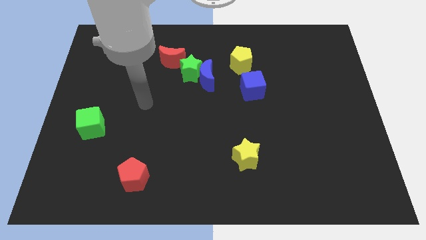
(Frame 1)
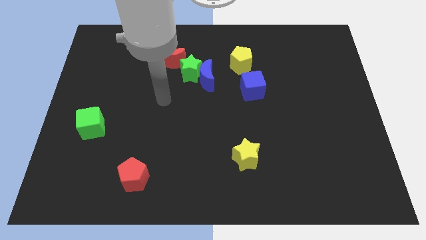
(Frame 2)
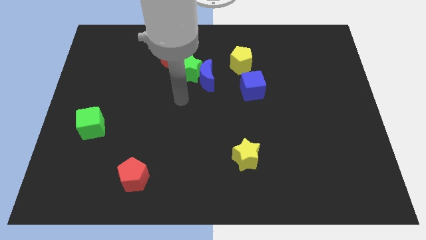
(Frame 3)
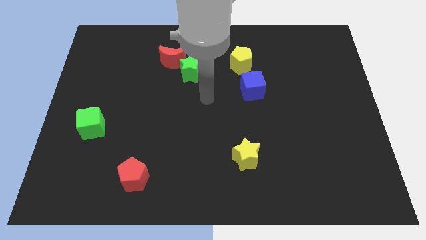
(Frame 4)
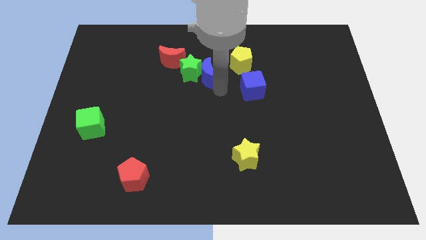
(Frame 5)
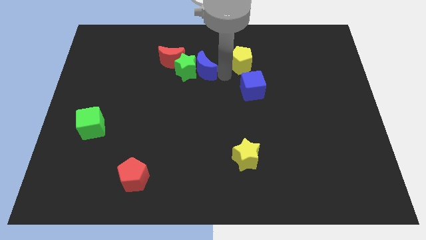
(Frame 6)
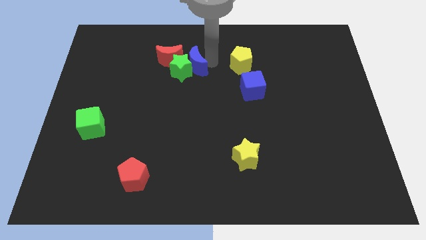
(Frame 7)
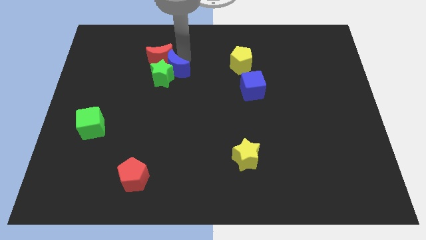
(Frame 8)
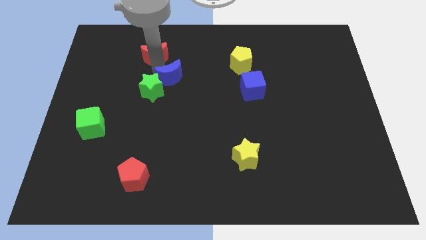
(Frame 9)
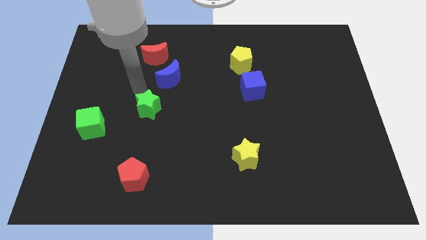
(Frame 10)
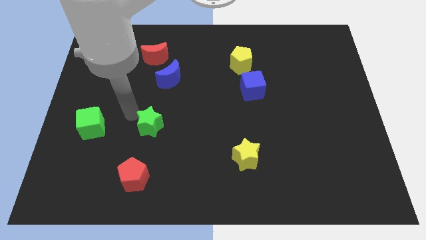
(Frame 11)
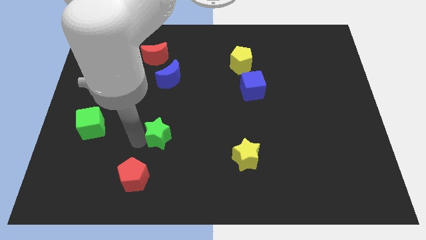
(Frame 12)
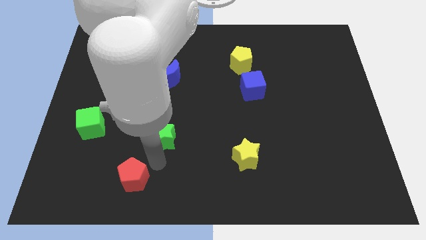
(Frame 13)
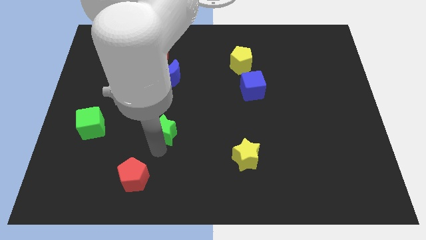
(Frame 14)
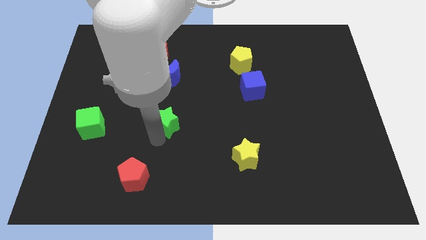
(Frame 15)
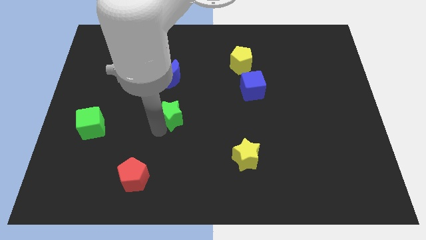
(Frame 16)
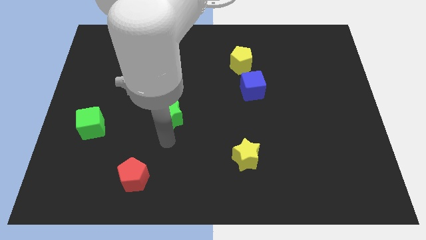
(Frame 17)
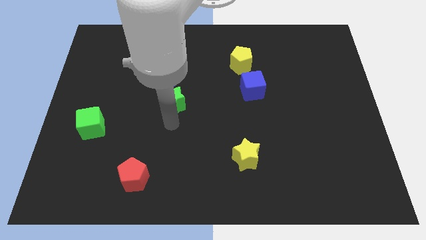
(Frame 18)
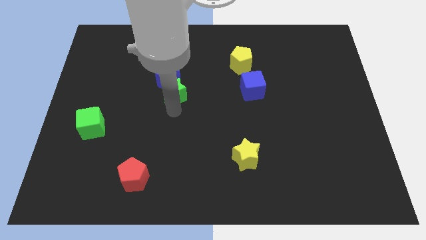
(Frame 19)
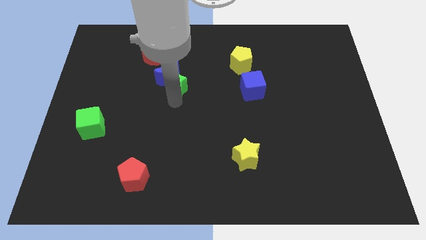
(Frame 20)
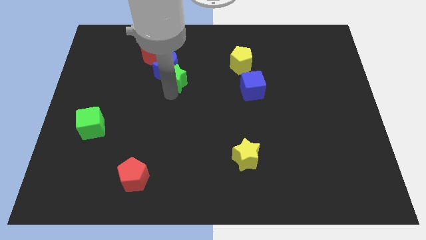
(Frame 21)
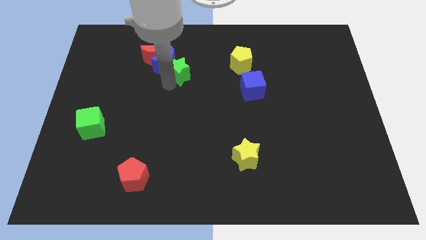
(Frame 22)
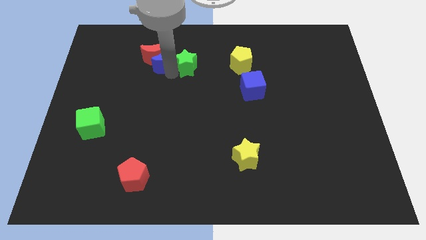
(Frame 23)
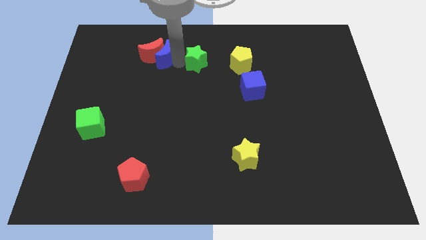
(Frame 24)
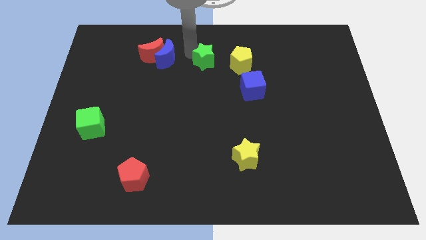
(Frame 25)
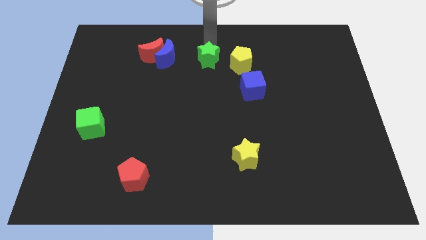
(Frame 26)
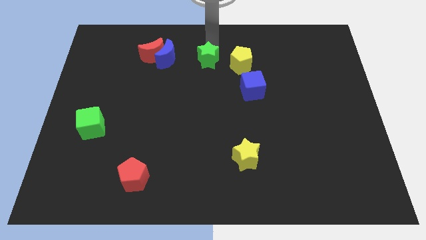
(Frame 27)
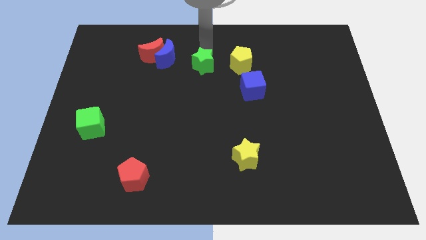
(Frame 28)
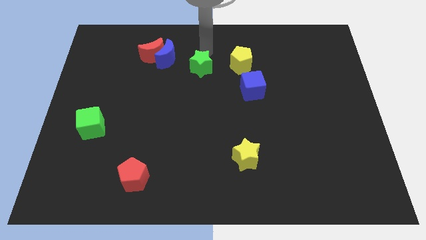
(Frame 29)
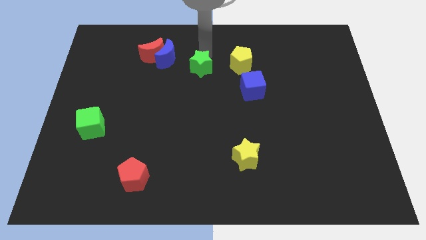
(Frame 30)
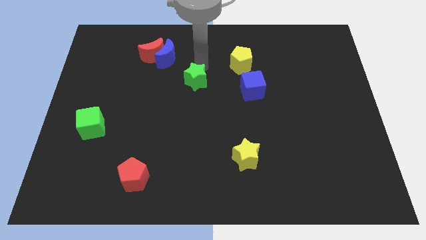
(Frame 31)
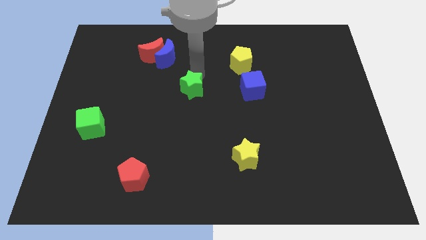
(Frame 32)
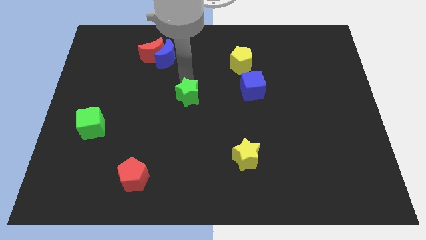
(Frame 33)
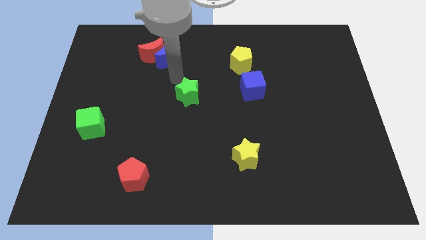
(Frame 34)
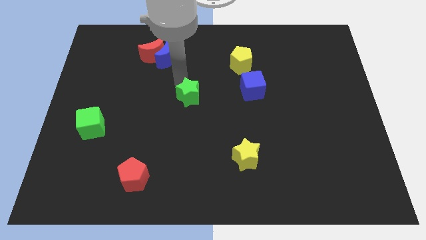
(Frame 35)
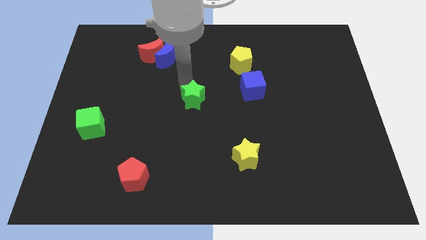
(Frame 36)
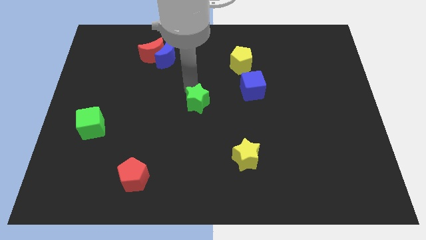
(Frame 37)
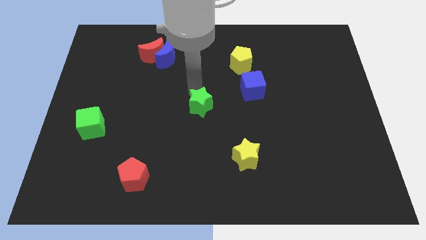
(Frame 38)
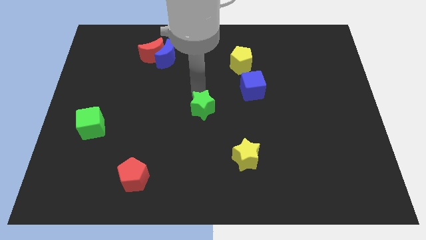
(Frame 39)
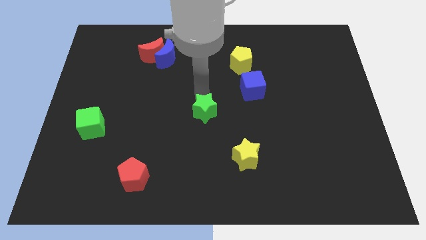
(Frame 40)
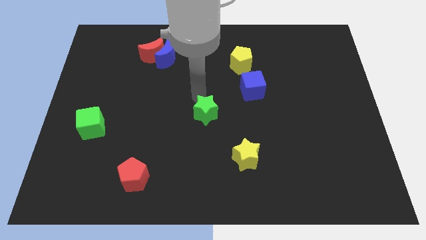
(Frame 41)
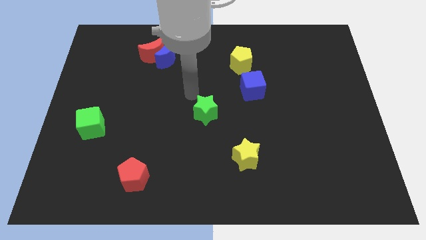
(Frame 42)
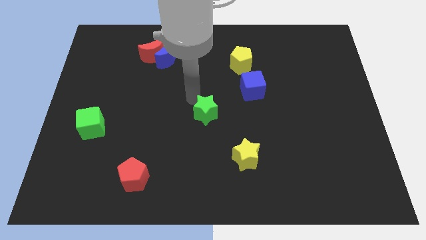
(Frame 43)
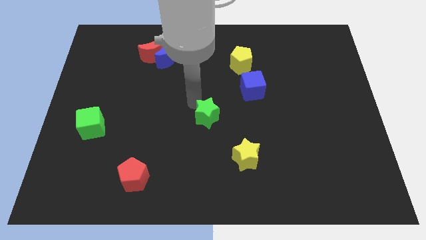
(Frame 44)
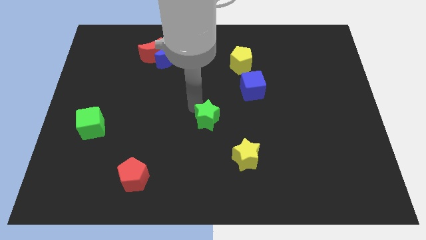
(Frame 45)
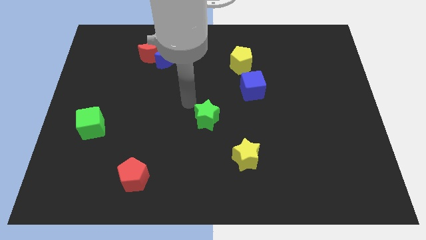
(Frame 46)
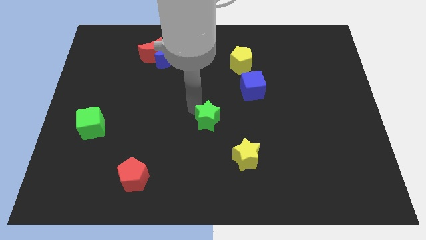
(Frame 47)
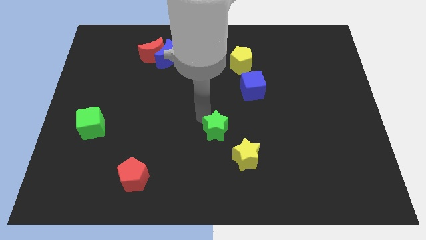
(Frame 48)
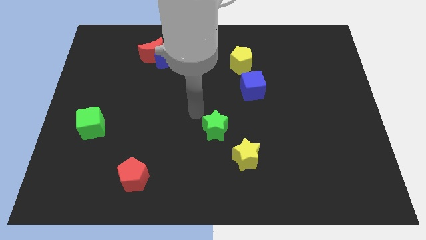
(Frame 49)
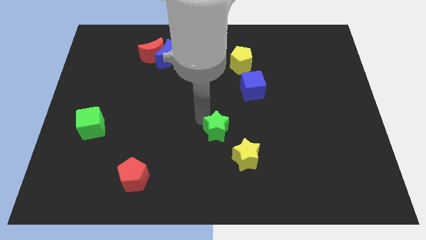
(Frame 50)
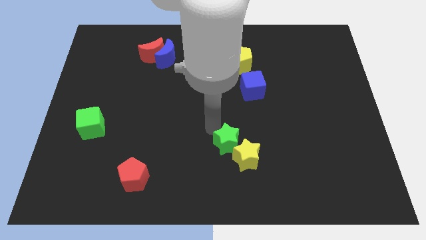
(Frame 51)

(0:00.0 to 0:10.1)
push the green star close to the yellow star

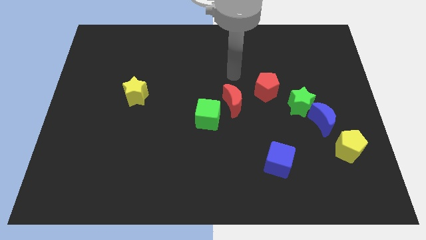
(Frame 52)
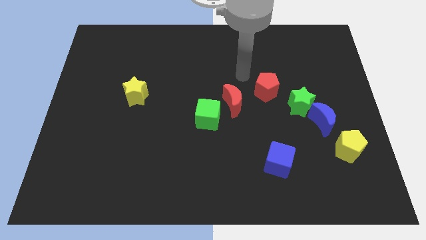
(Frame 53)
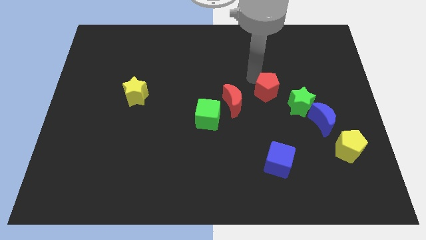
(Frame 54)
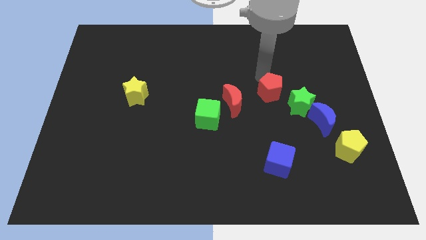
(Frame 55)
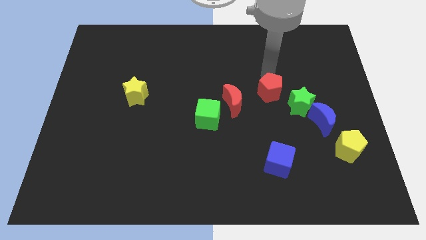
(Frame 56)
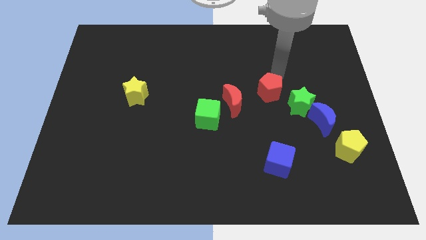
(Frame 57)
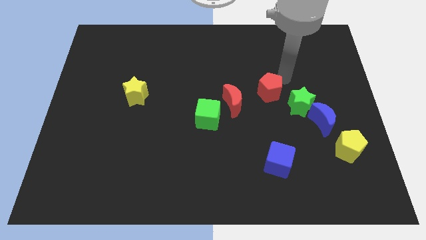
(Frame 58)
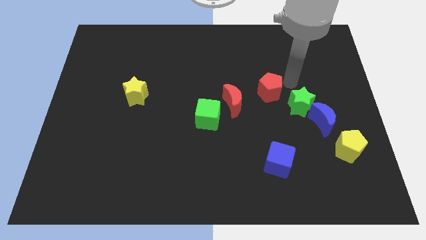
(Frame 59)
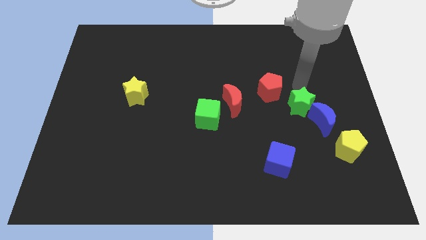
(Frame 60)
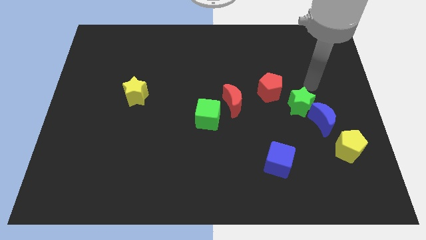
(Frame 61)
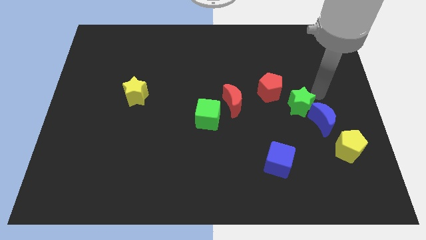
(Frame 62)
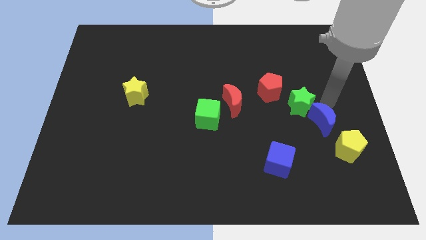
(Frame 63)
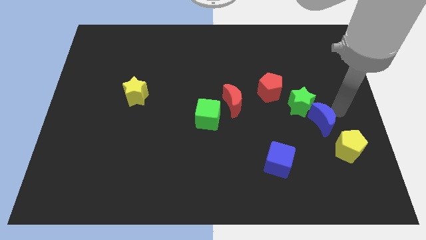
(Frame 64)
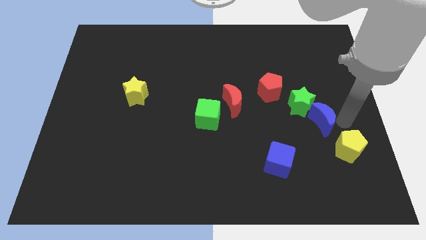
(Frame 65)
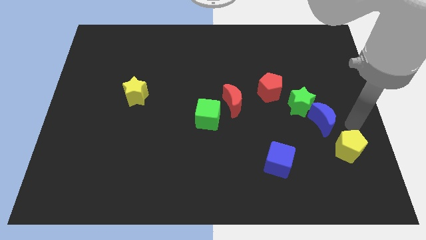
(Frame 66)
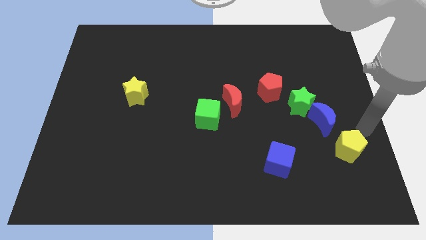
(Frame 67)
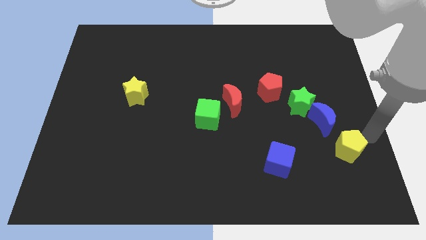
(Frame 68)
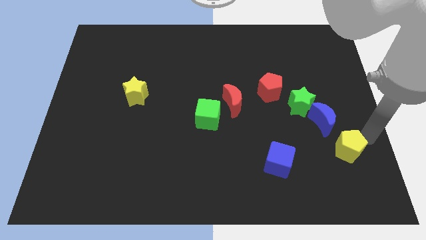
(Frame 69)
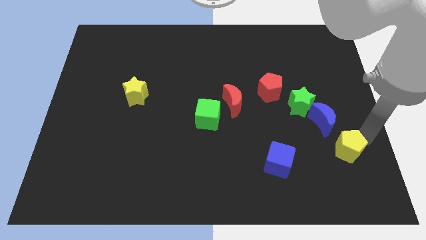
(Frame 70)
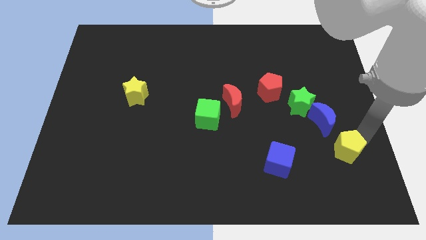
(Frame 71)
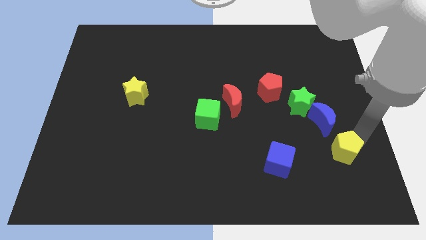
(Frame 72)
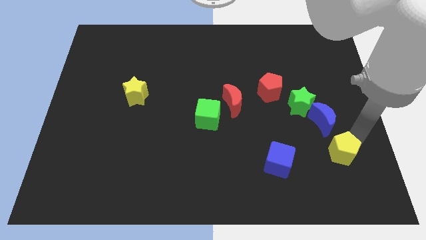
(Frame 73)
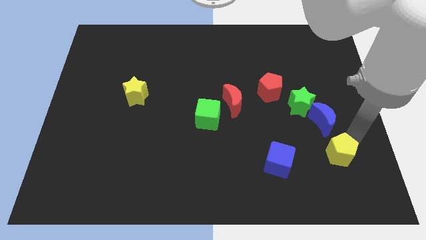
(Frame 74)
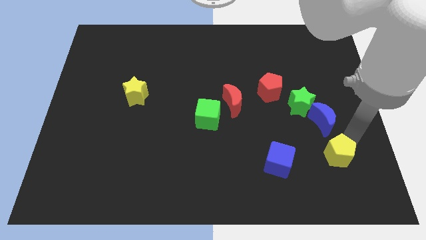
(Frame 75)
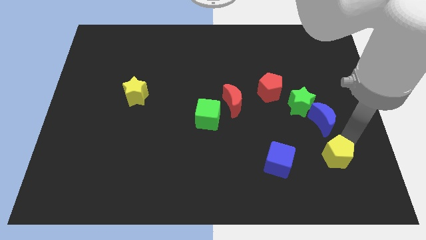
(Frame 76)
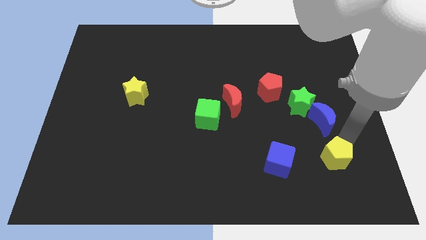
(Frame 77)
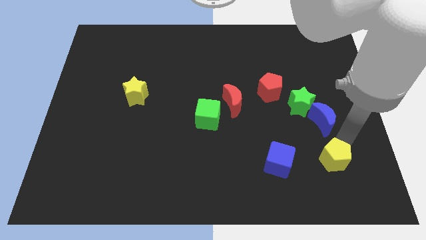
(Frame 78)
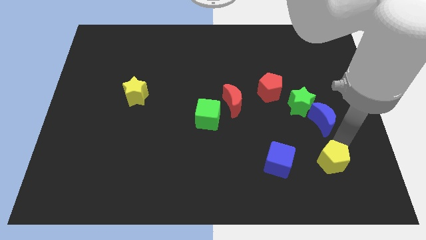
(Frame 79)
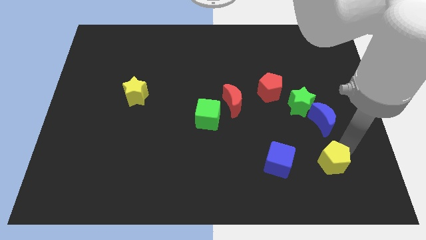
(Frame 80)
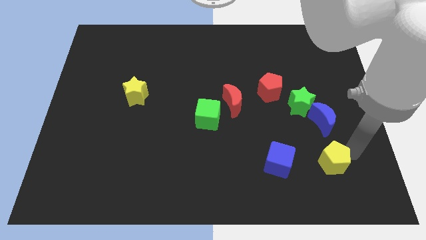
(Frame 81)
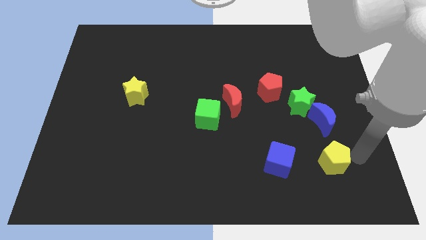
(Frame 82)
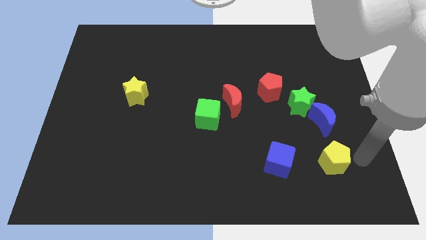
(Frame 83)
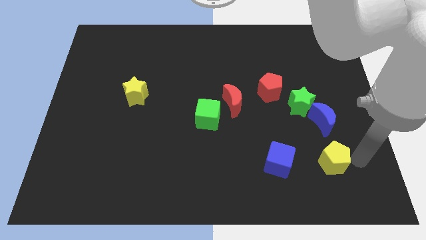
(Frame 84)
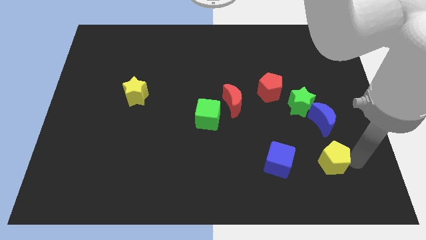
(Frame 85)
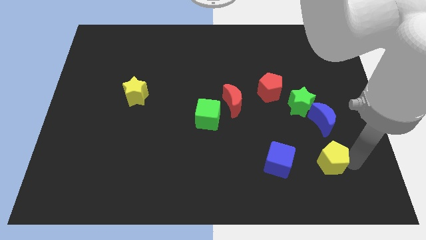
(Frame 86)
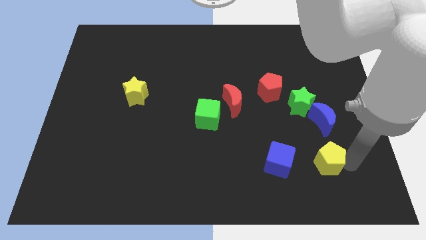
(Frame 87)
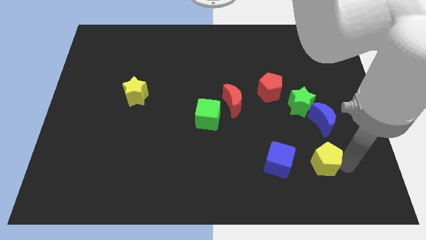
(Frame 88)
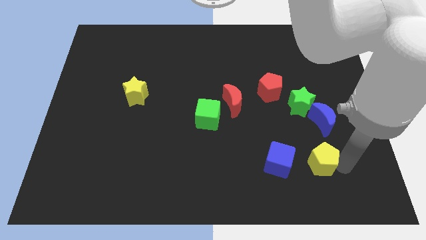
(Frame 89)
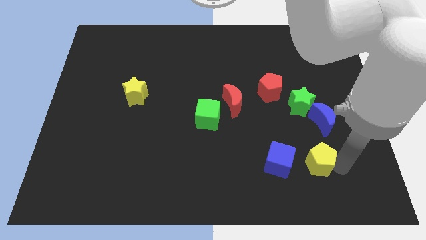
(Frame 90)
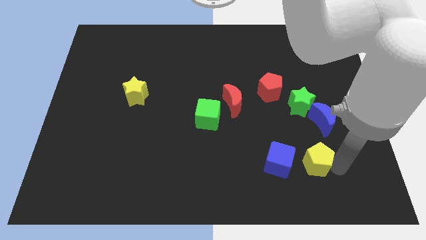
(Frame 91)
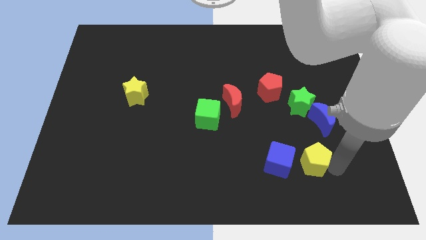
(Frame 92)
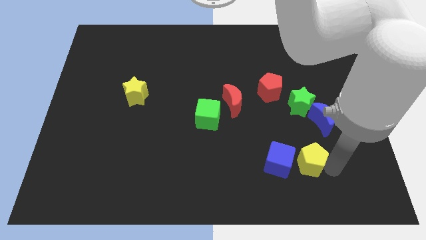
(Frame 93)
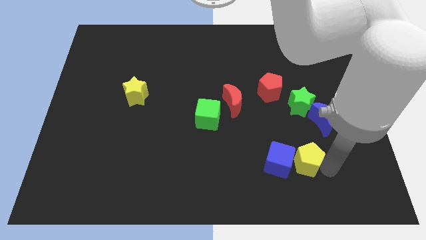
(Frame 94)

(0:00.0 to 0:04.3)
push the yellow pentagon to the blue cube
